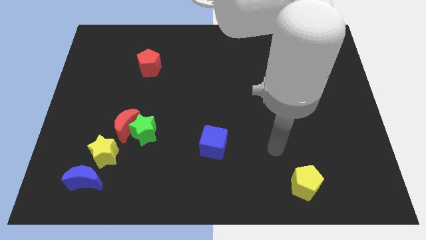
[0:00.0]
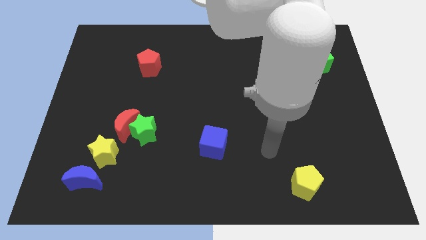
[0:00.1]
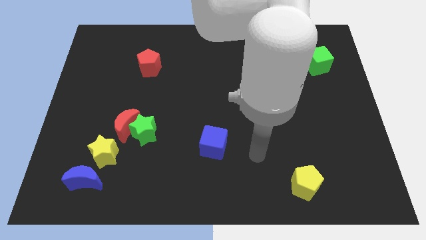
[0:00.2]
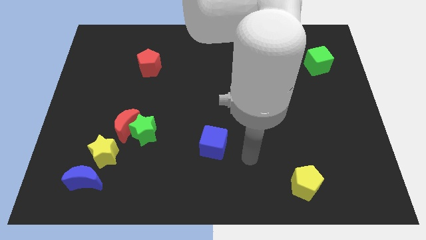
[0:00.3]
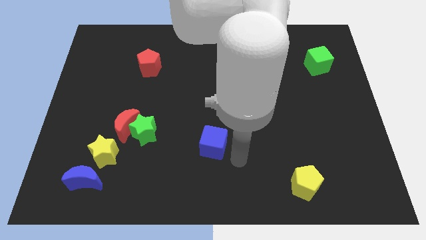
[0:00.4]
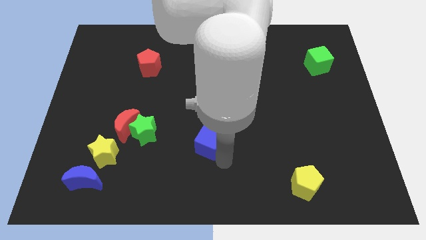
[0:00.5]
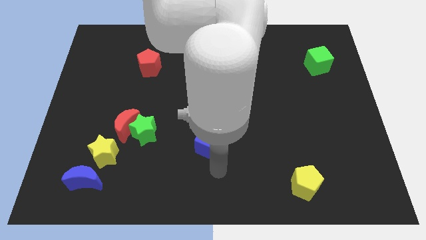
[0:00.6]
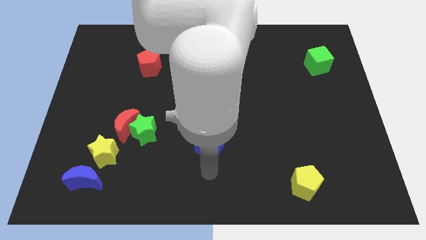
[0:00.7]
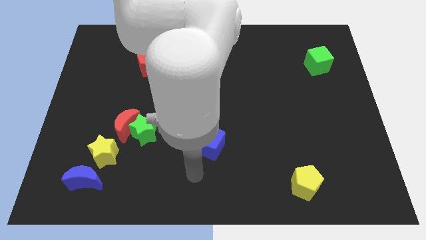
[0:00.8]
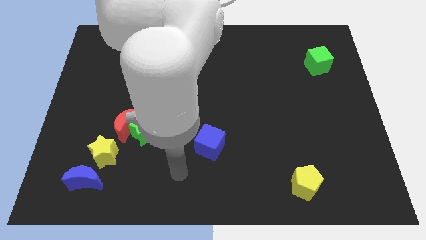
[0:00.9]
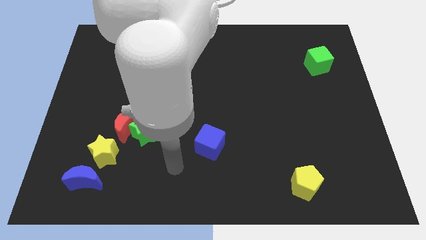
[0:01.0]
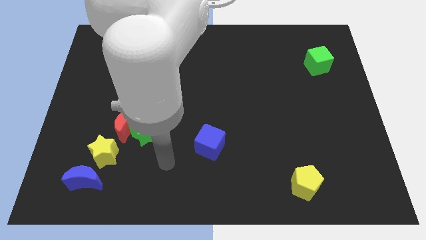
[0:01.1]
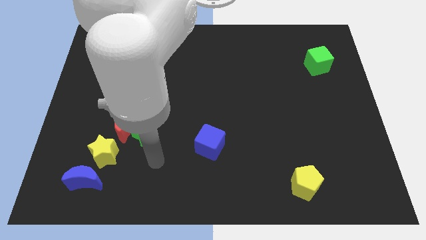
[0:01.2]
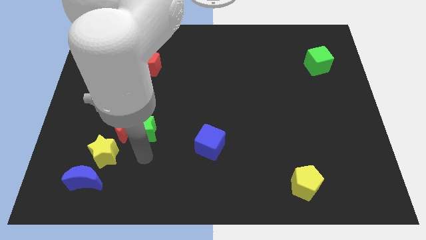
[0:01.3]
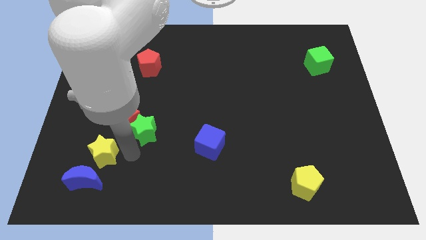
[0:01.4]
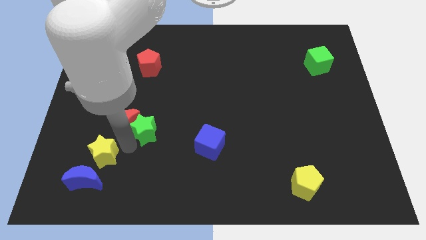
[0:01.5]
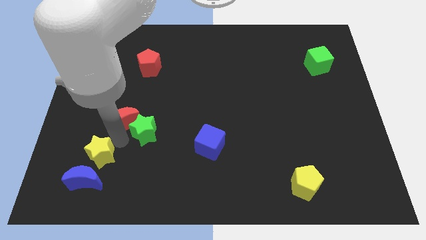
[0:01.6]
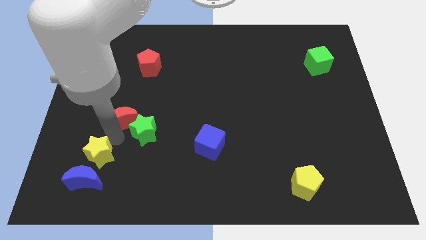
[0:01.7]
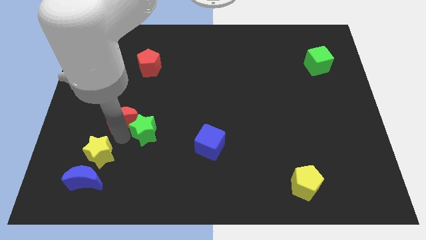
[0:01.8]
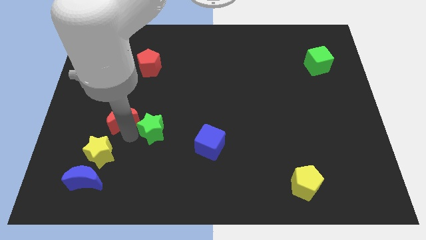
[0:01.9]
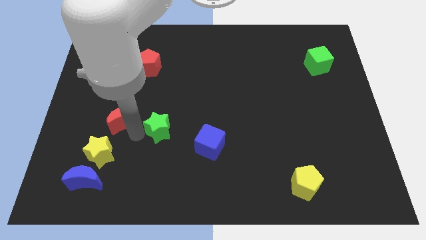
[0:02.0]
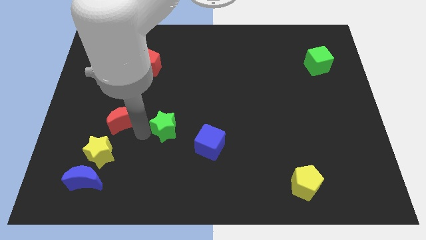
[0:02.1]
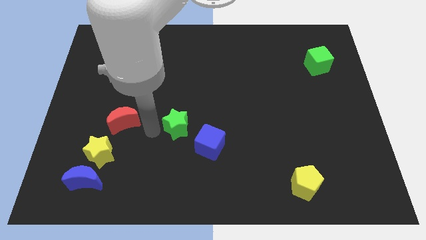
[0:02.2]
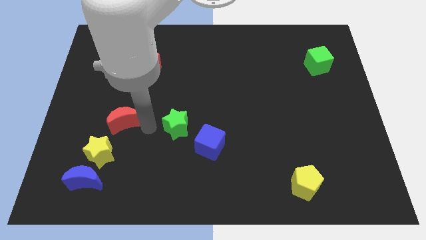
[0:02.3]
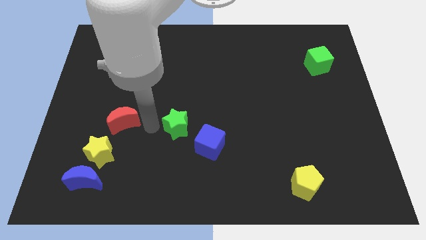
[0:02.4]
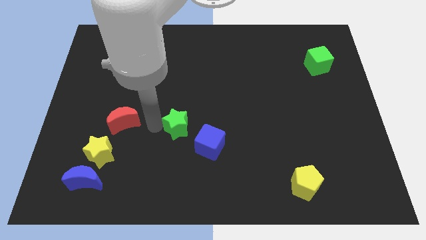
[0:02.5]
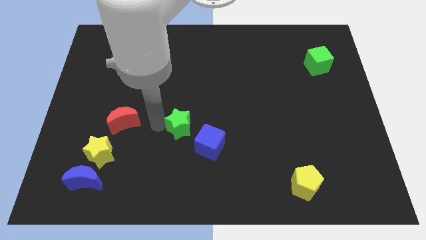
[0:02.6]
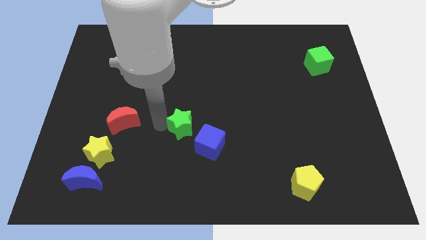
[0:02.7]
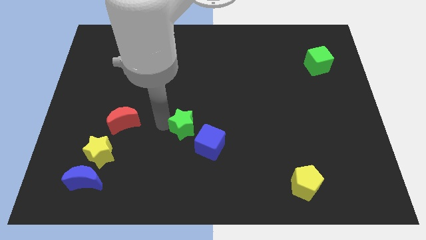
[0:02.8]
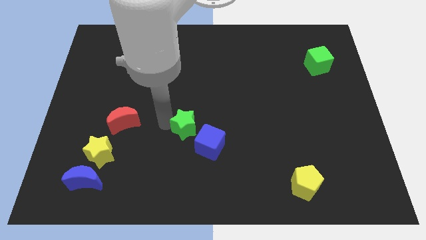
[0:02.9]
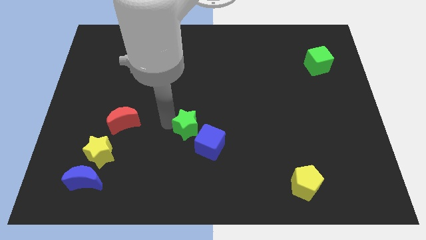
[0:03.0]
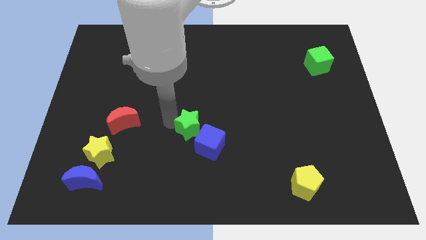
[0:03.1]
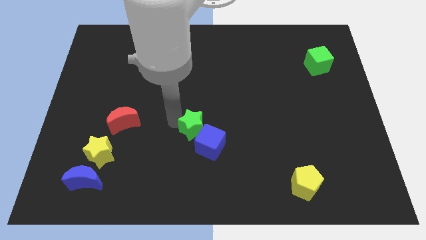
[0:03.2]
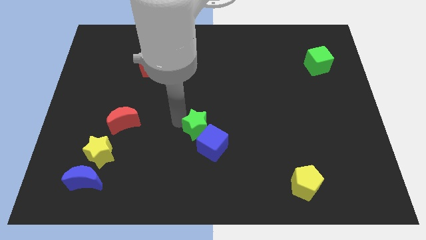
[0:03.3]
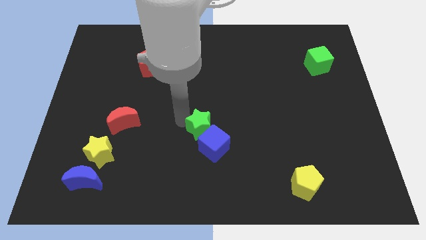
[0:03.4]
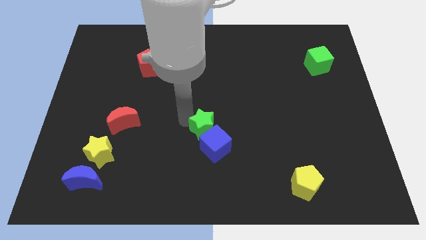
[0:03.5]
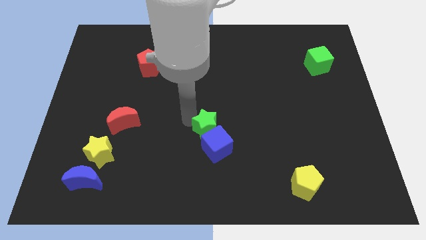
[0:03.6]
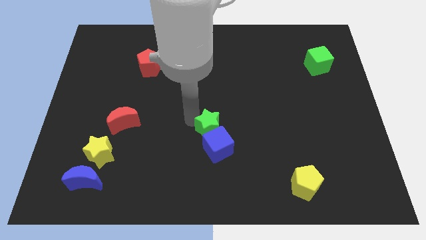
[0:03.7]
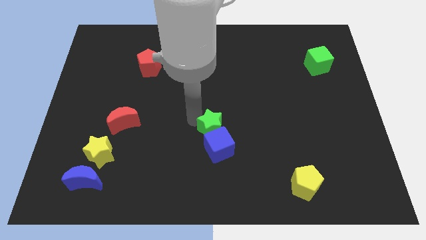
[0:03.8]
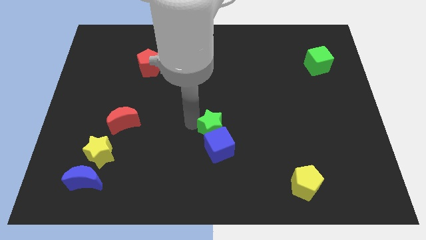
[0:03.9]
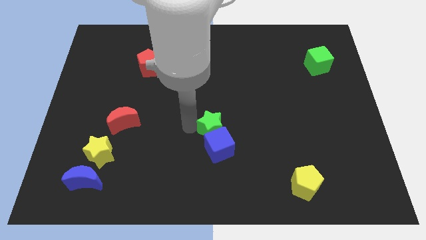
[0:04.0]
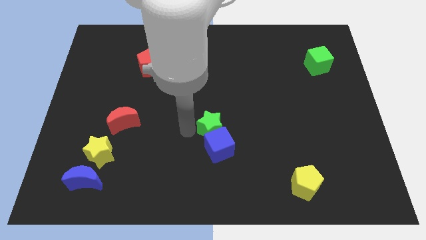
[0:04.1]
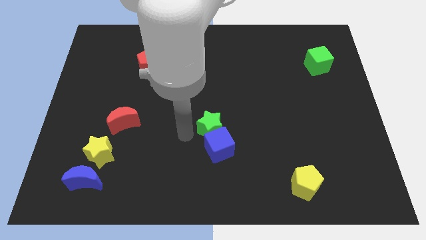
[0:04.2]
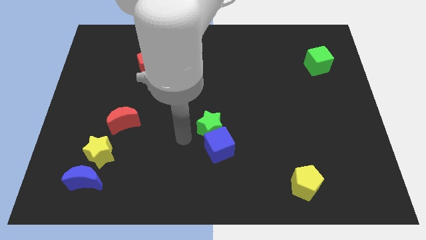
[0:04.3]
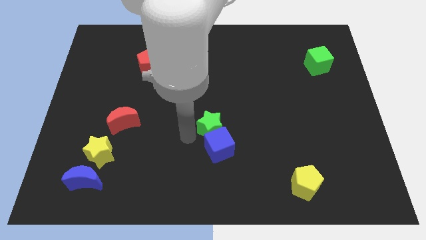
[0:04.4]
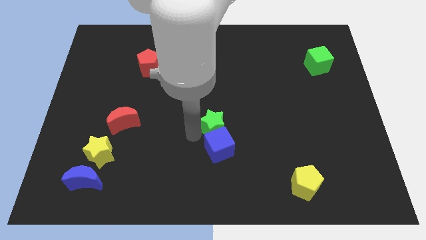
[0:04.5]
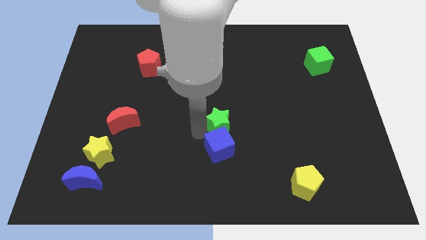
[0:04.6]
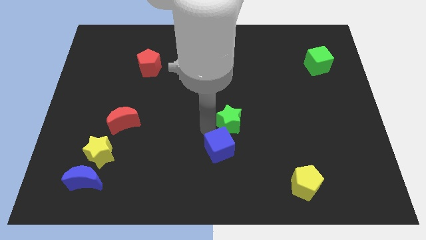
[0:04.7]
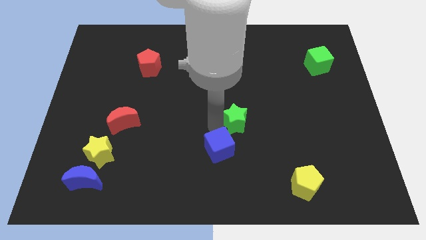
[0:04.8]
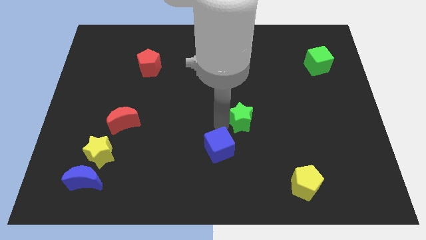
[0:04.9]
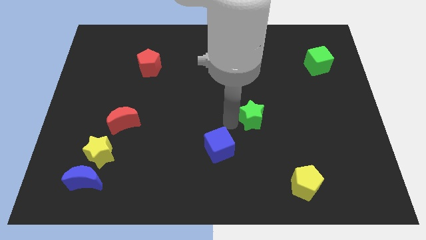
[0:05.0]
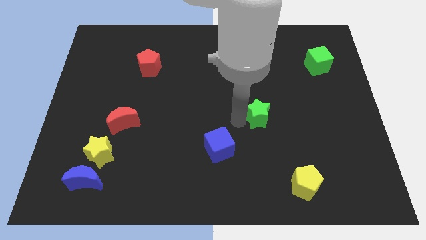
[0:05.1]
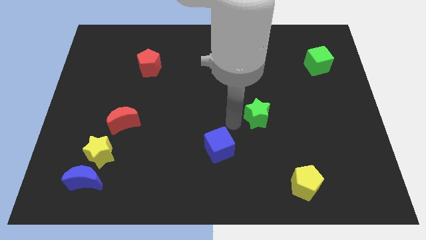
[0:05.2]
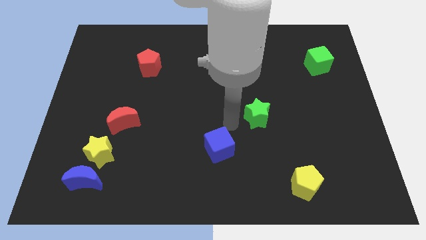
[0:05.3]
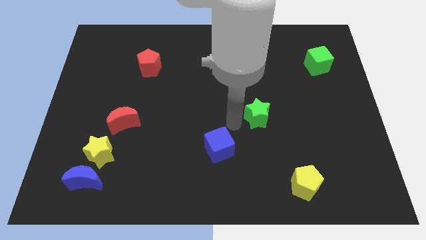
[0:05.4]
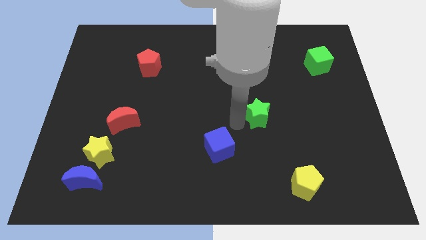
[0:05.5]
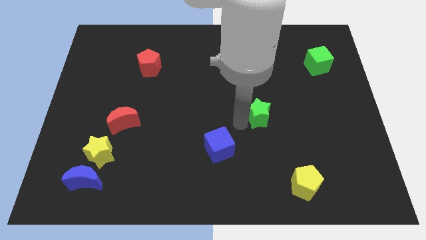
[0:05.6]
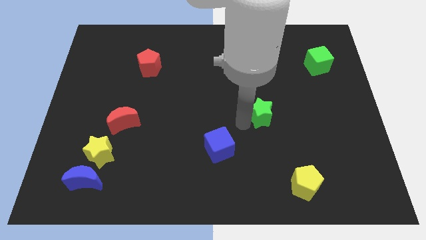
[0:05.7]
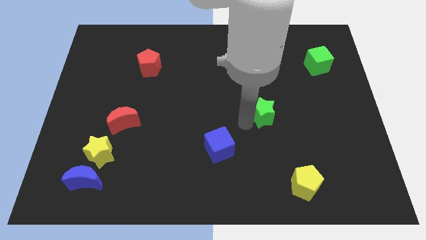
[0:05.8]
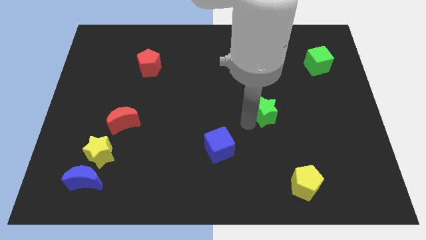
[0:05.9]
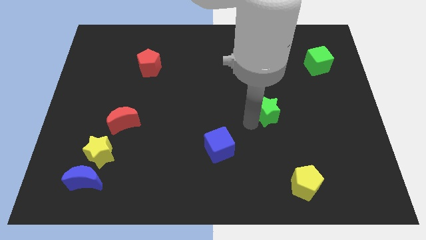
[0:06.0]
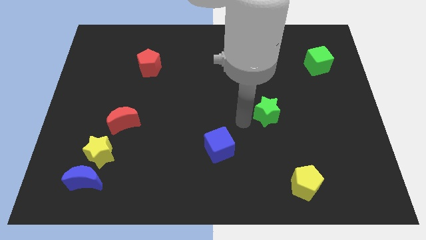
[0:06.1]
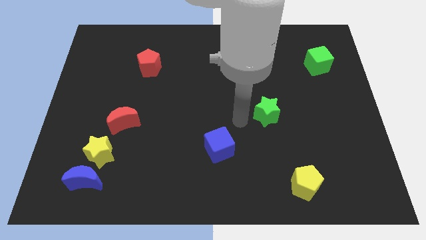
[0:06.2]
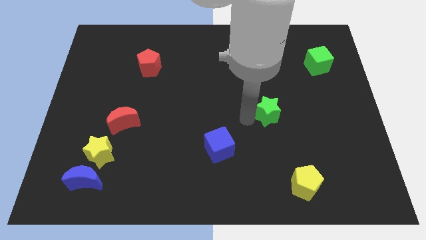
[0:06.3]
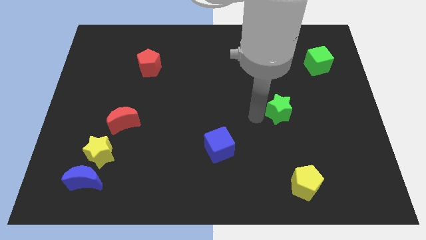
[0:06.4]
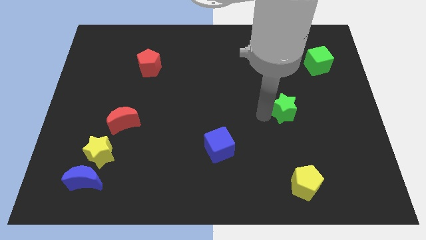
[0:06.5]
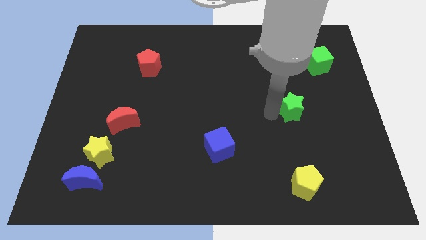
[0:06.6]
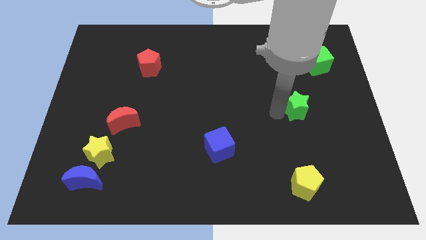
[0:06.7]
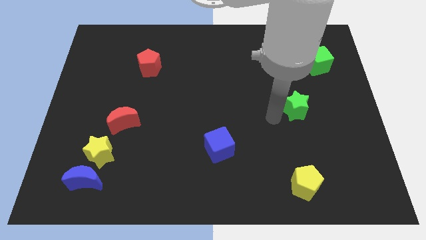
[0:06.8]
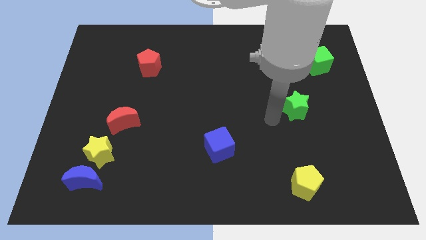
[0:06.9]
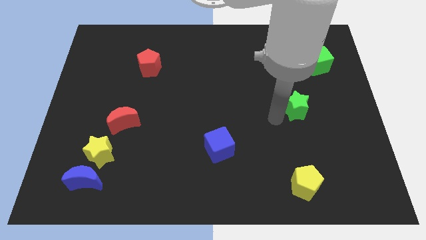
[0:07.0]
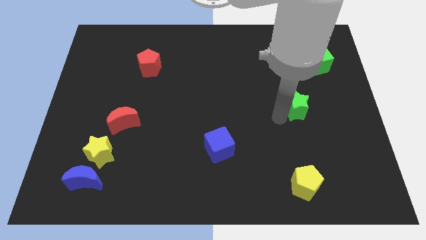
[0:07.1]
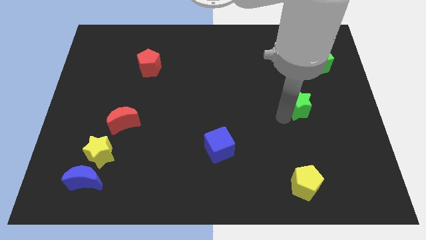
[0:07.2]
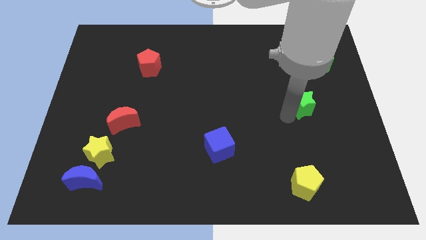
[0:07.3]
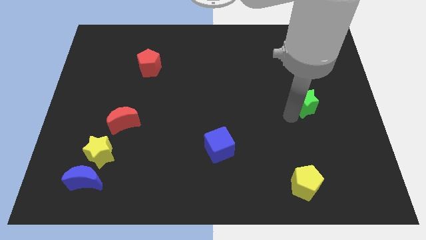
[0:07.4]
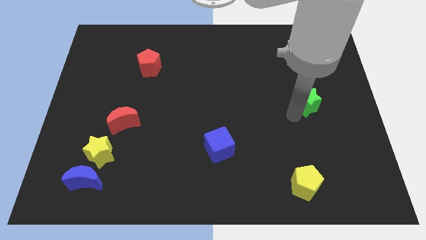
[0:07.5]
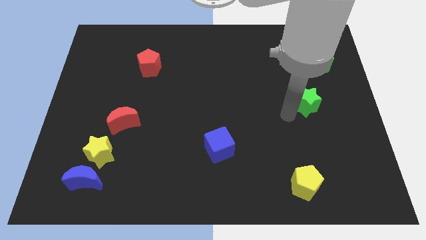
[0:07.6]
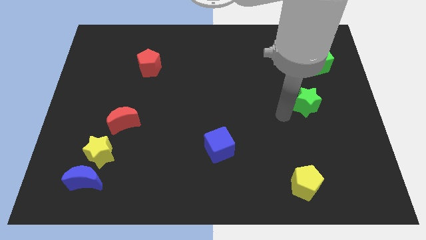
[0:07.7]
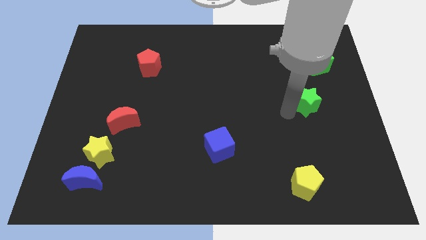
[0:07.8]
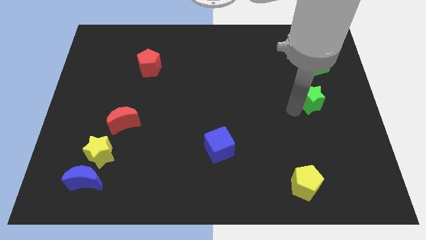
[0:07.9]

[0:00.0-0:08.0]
move the green star to the bottom of the green cube
